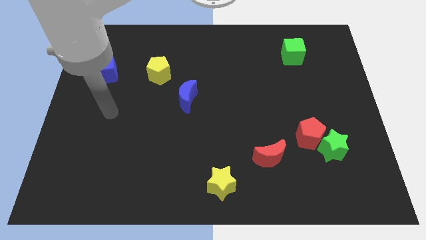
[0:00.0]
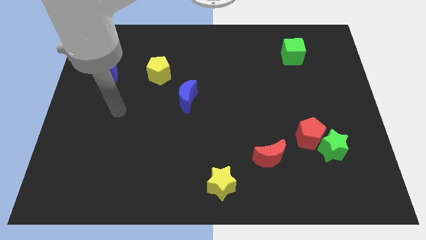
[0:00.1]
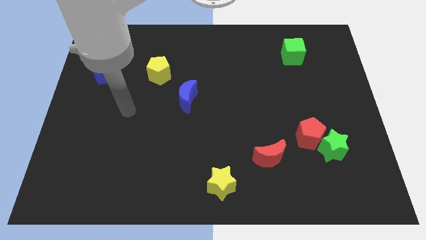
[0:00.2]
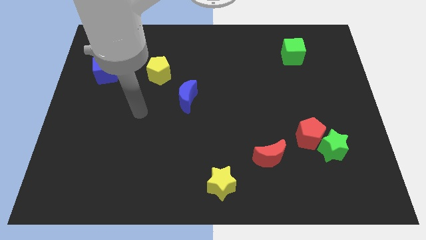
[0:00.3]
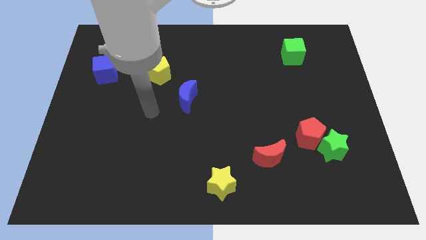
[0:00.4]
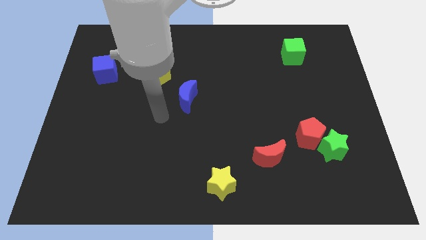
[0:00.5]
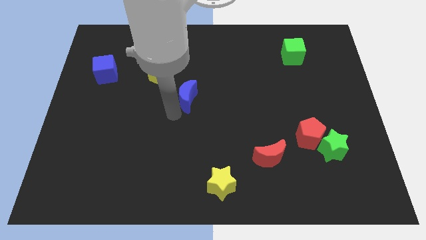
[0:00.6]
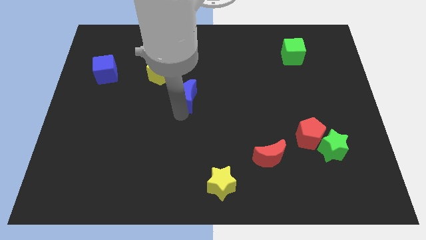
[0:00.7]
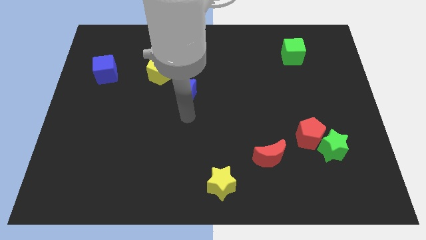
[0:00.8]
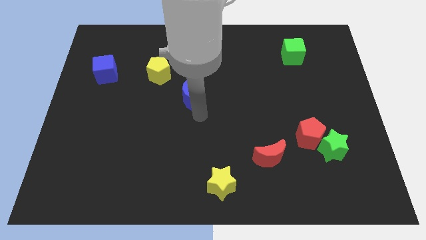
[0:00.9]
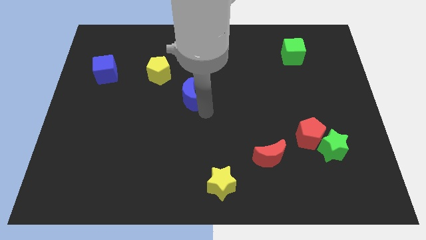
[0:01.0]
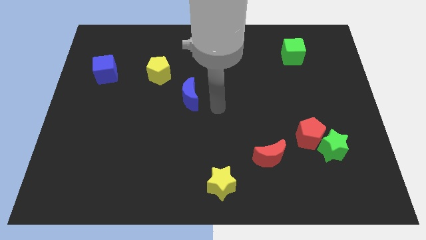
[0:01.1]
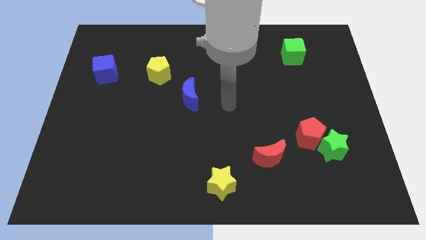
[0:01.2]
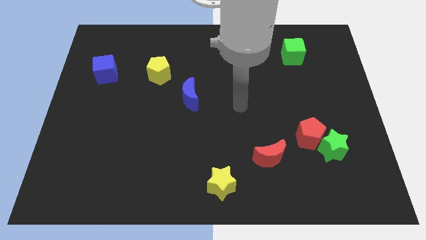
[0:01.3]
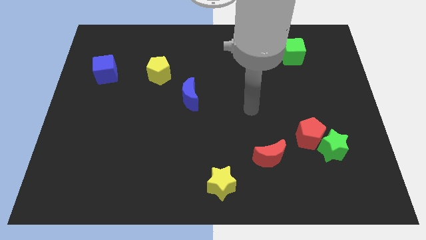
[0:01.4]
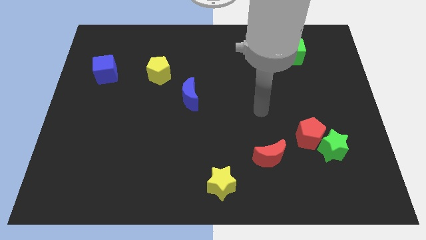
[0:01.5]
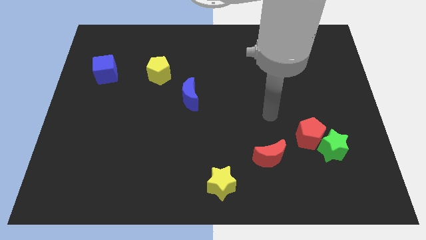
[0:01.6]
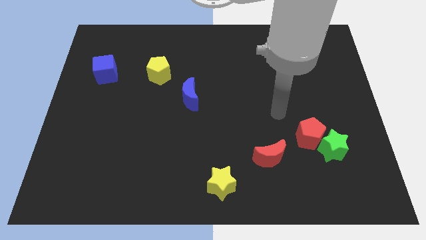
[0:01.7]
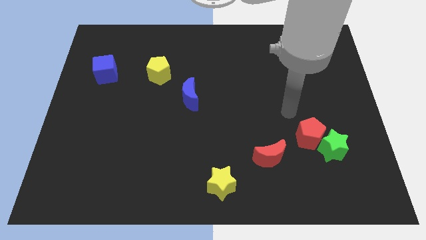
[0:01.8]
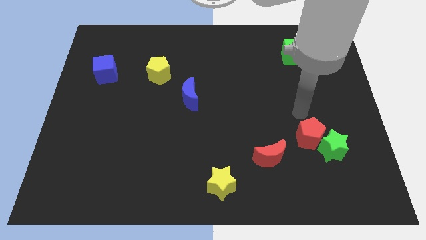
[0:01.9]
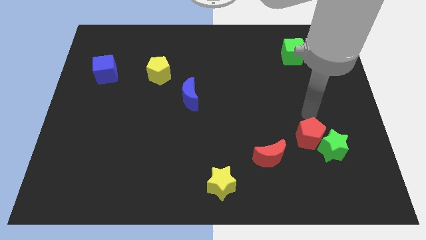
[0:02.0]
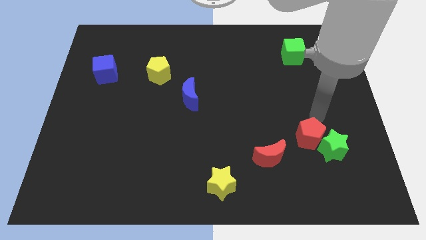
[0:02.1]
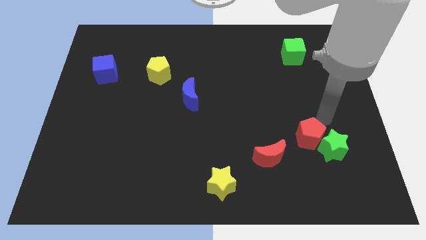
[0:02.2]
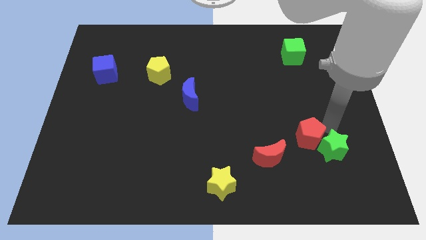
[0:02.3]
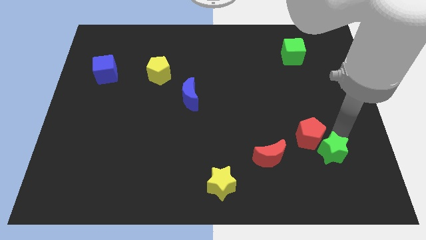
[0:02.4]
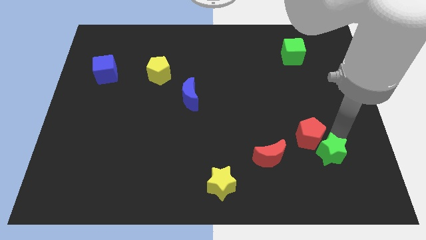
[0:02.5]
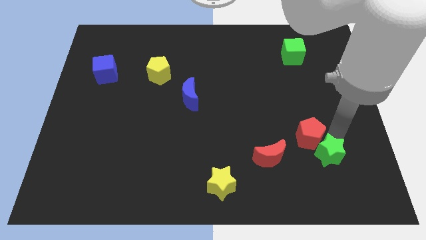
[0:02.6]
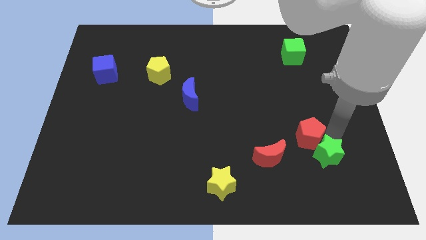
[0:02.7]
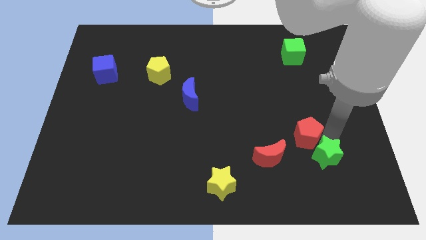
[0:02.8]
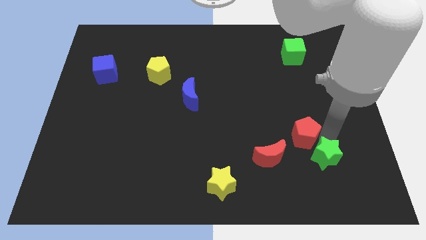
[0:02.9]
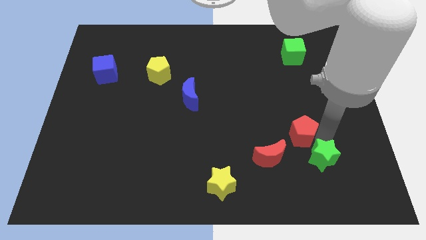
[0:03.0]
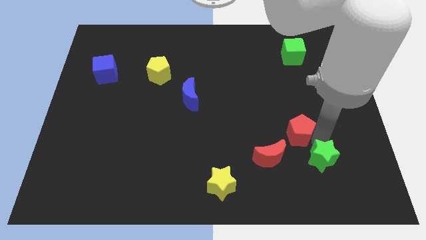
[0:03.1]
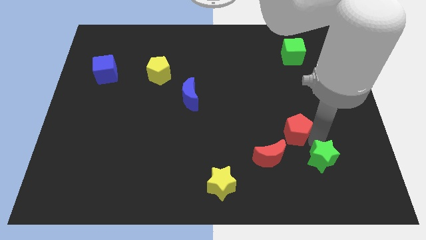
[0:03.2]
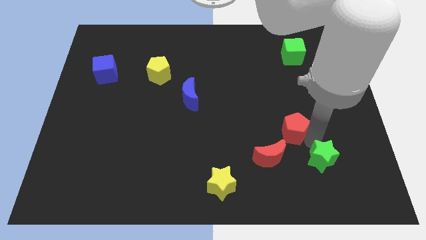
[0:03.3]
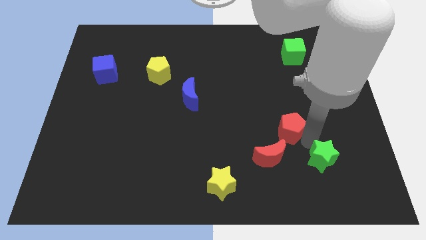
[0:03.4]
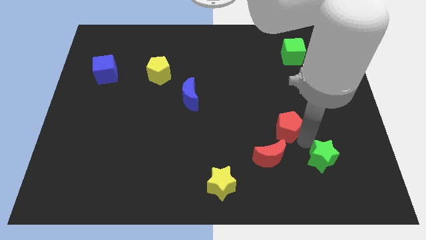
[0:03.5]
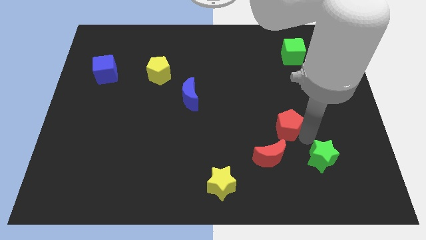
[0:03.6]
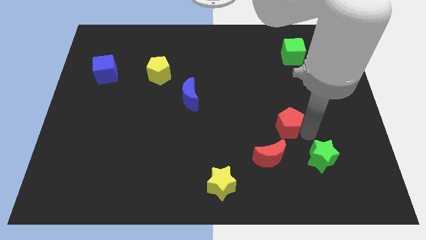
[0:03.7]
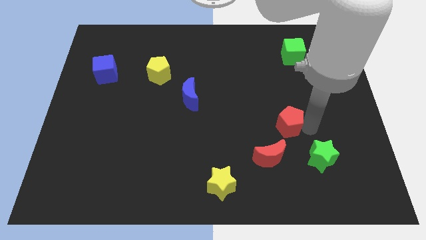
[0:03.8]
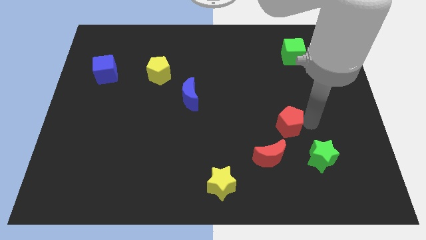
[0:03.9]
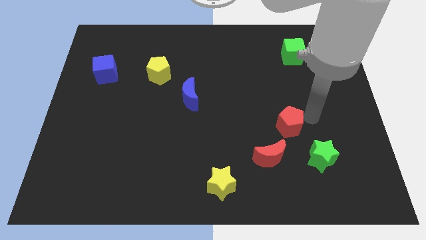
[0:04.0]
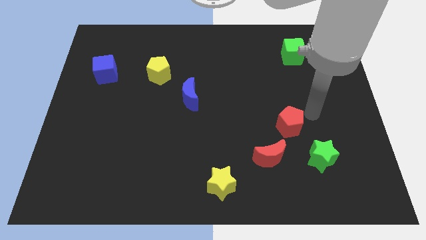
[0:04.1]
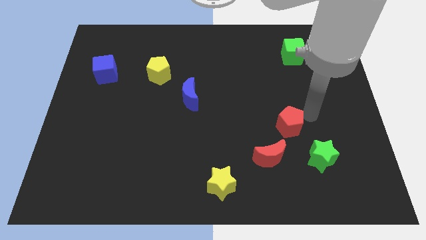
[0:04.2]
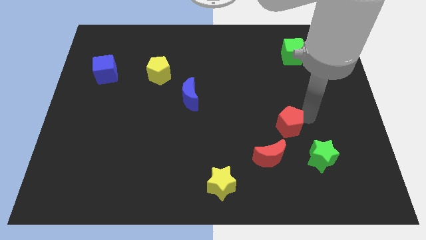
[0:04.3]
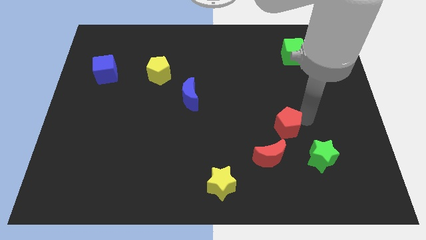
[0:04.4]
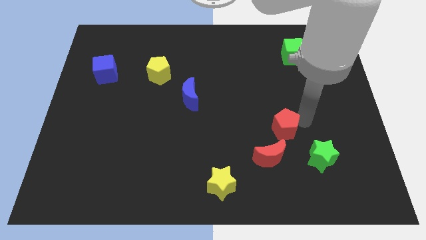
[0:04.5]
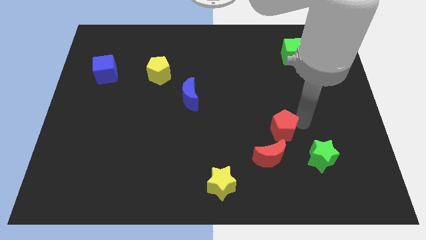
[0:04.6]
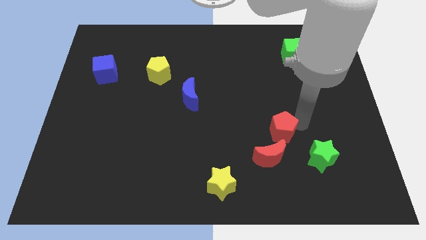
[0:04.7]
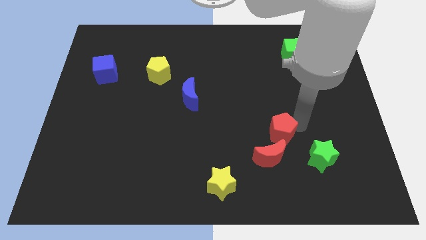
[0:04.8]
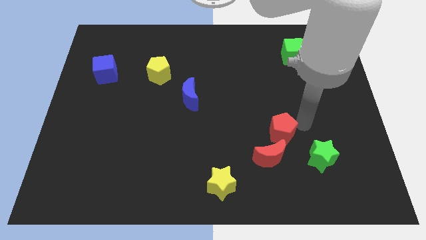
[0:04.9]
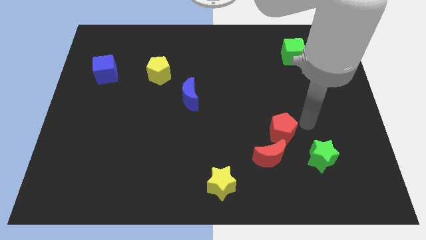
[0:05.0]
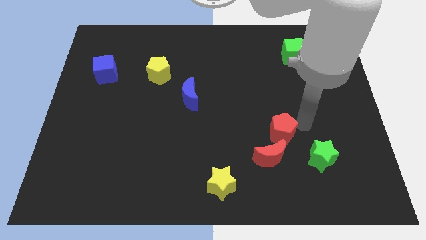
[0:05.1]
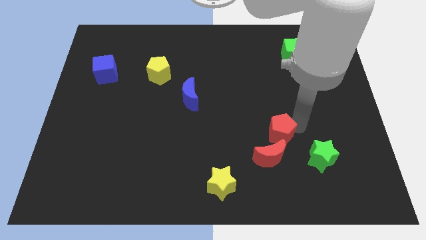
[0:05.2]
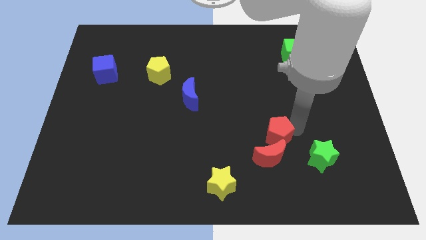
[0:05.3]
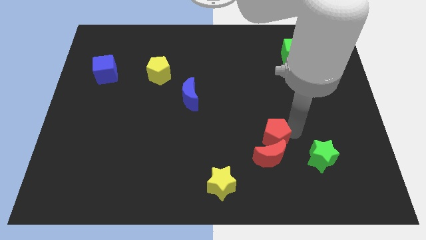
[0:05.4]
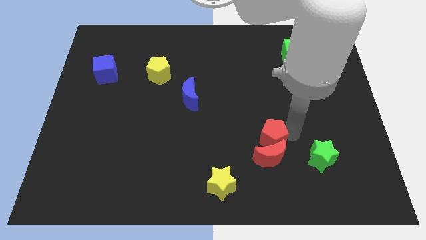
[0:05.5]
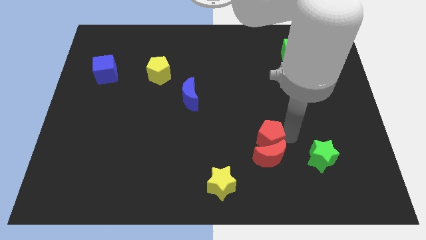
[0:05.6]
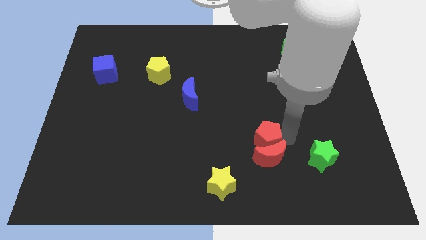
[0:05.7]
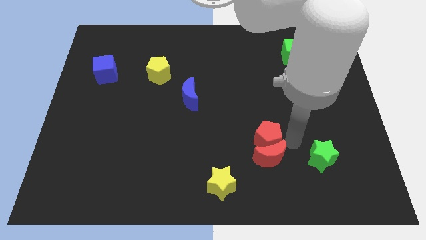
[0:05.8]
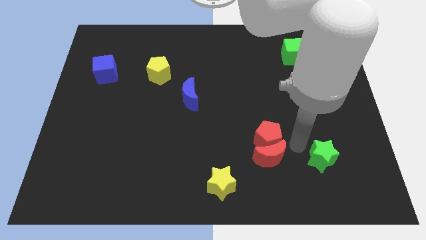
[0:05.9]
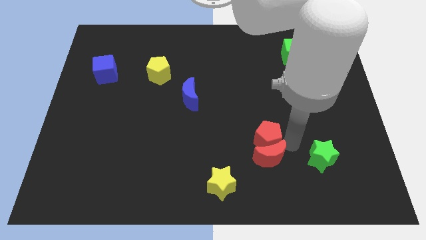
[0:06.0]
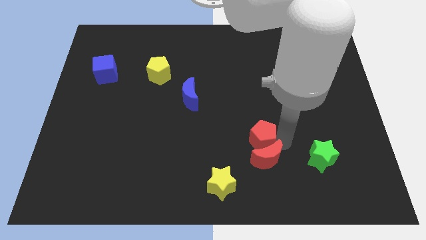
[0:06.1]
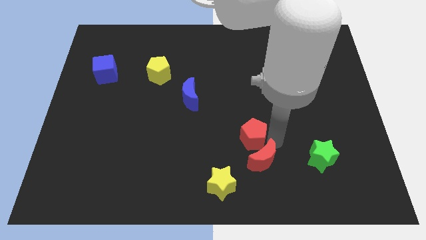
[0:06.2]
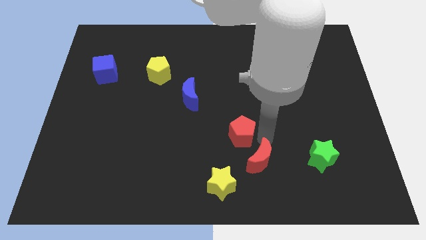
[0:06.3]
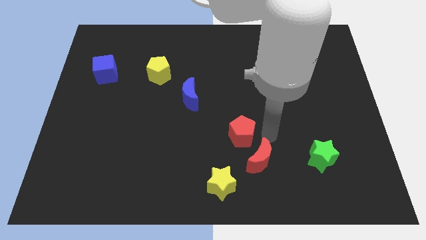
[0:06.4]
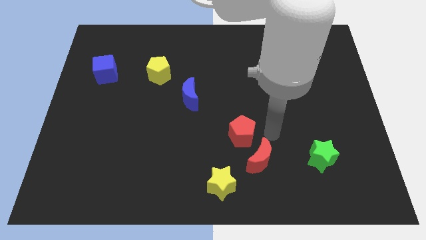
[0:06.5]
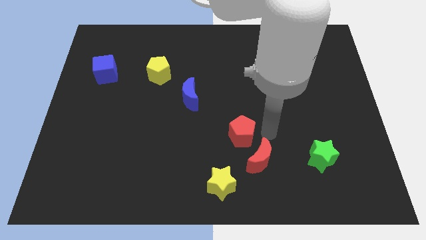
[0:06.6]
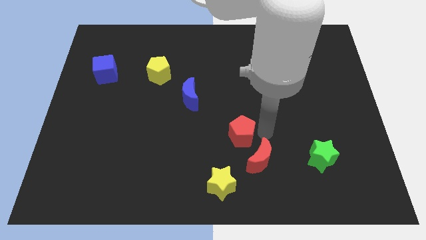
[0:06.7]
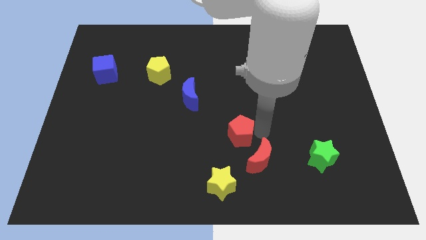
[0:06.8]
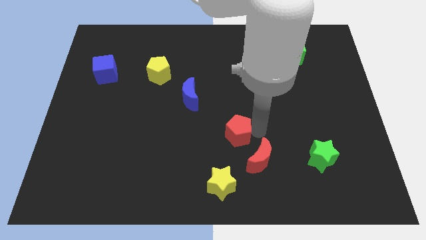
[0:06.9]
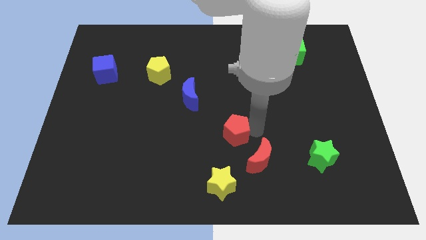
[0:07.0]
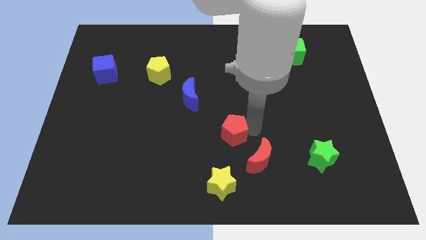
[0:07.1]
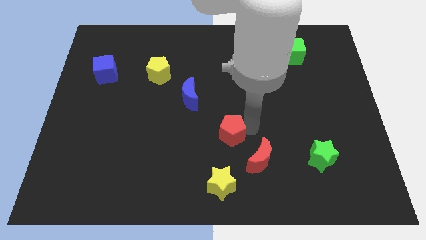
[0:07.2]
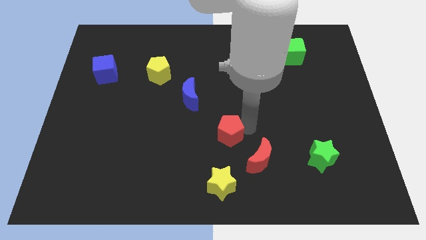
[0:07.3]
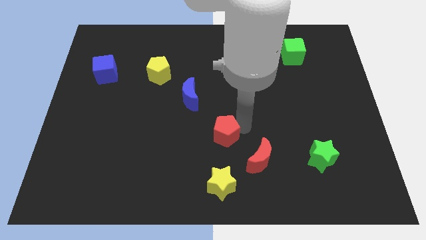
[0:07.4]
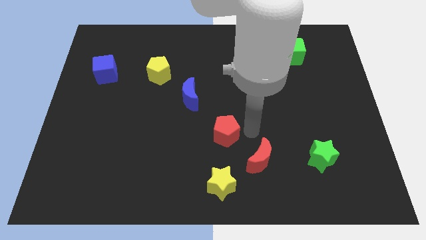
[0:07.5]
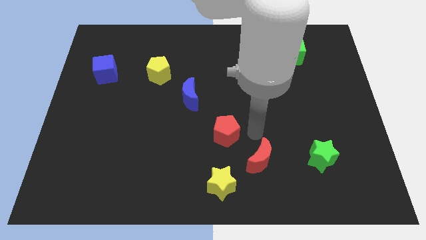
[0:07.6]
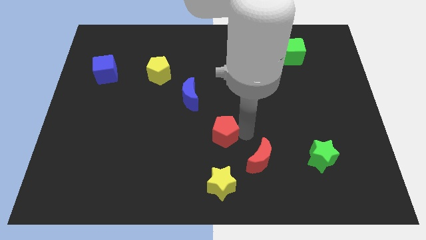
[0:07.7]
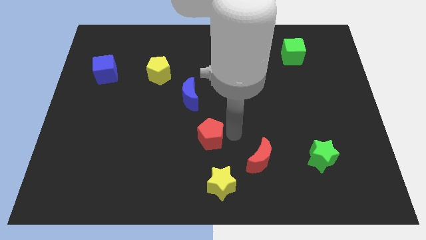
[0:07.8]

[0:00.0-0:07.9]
push the red pentagon left

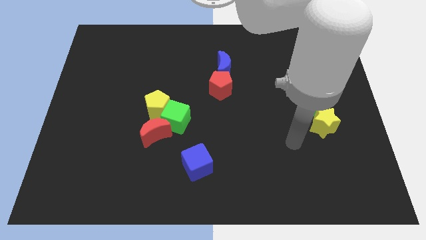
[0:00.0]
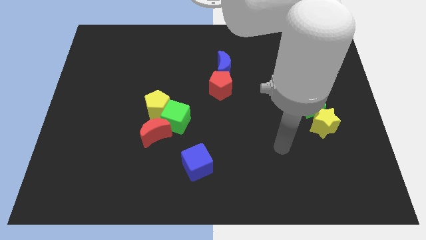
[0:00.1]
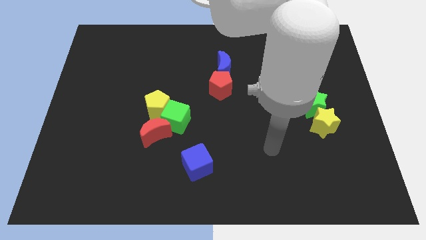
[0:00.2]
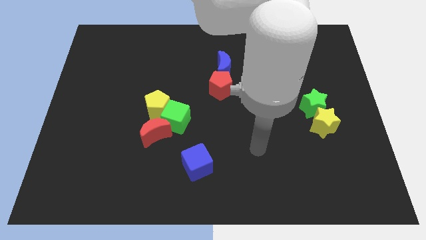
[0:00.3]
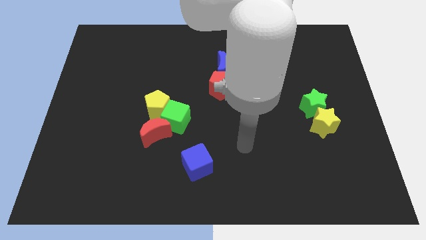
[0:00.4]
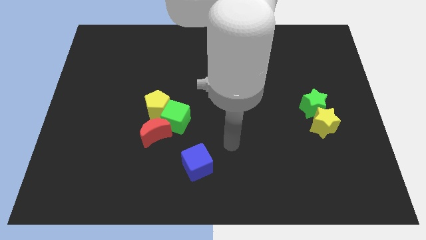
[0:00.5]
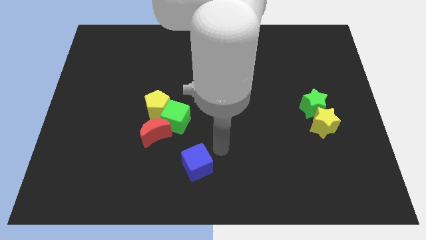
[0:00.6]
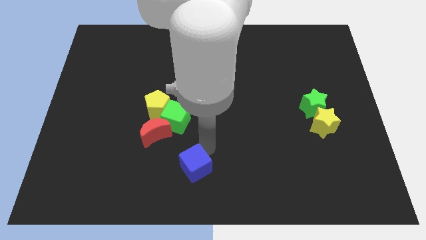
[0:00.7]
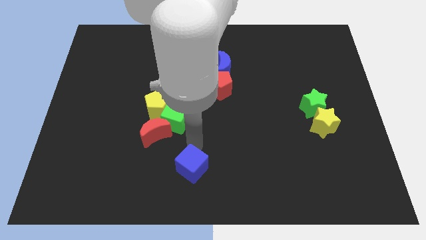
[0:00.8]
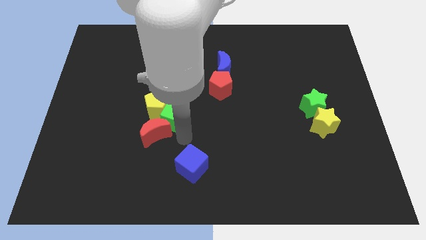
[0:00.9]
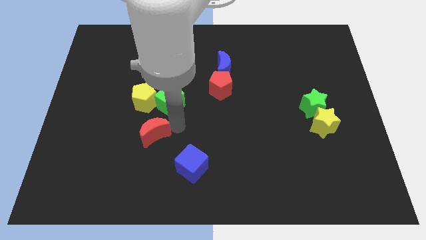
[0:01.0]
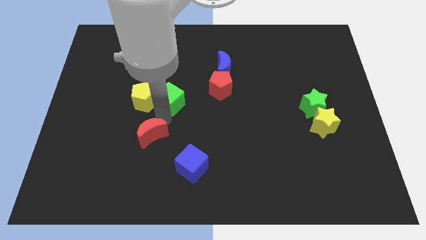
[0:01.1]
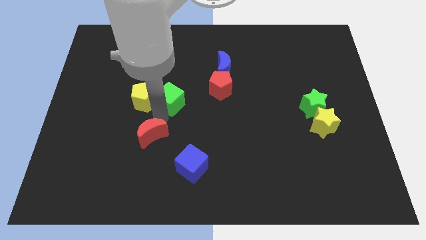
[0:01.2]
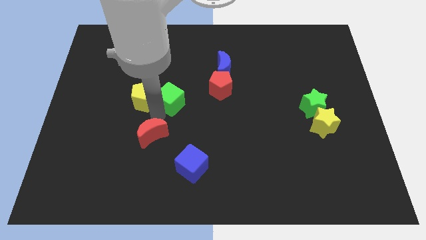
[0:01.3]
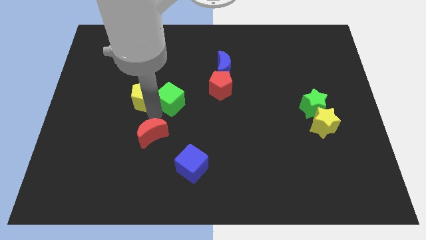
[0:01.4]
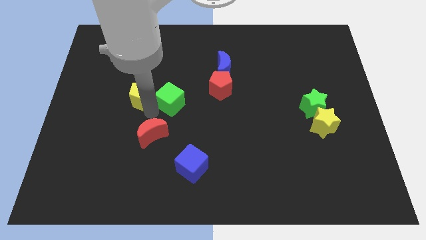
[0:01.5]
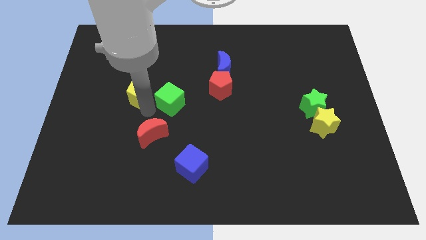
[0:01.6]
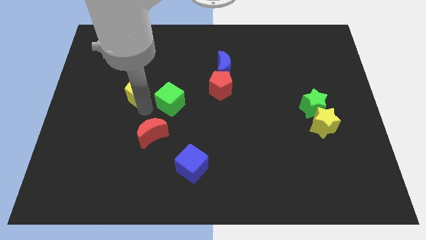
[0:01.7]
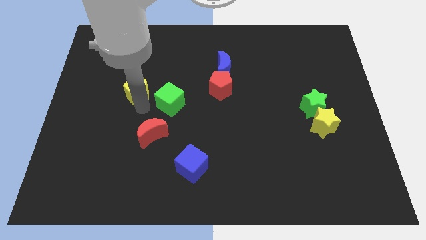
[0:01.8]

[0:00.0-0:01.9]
move the yellow pentagon diagonally upwards and left somewhat
